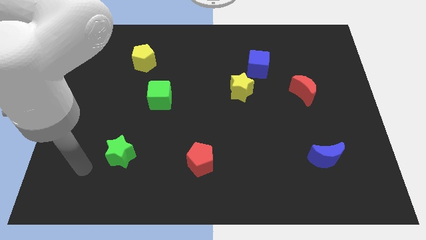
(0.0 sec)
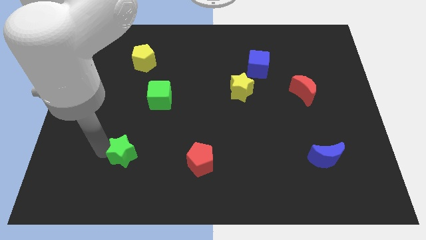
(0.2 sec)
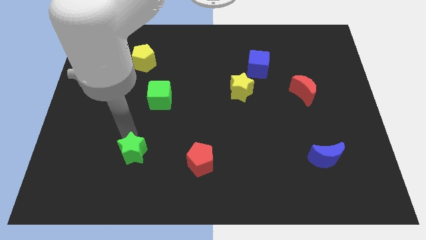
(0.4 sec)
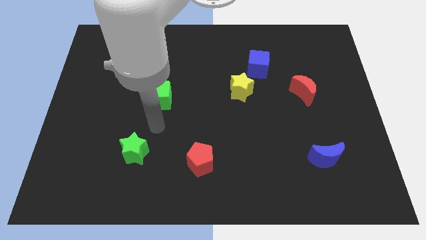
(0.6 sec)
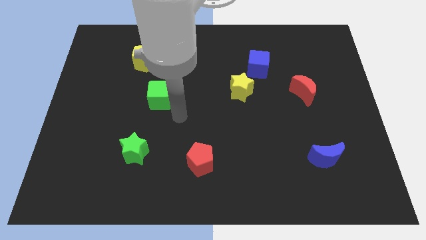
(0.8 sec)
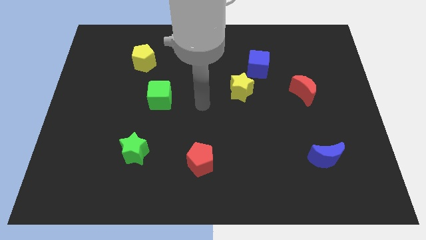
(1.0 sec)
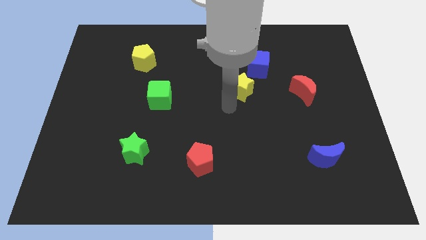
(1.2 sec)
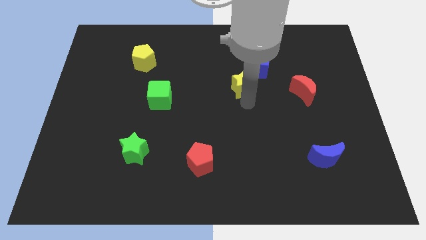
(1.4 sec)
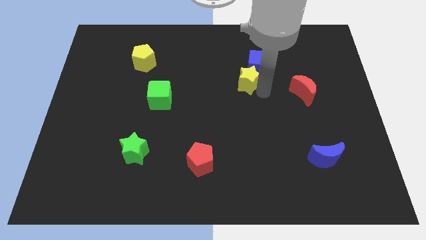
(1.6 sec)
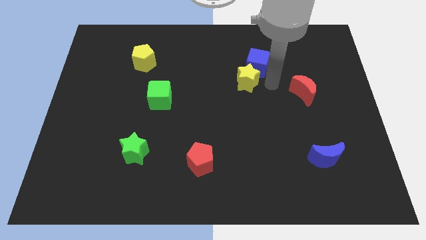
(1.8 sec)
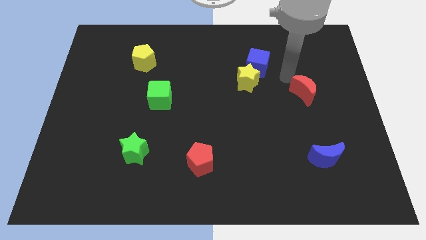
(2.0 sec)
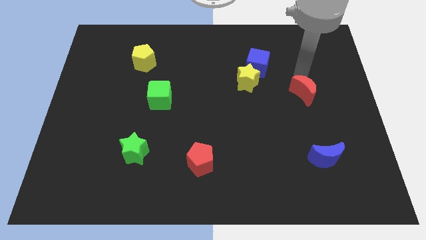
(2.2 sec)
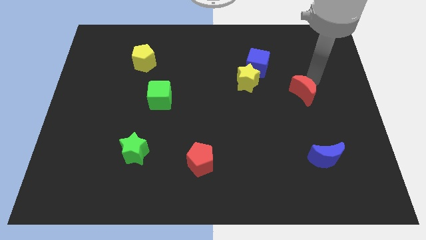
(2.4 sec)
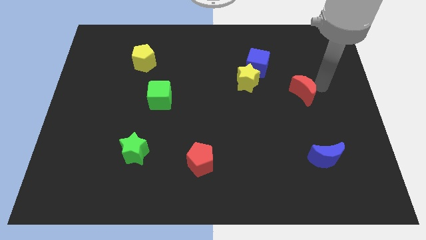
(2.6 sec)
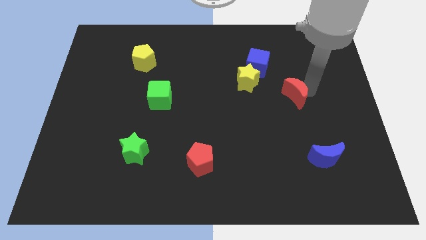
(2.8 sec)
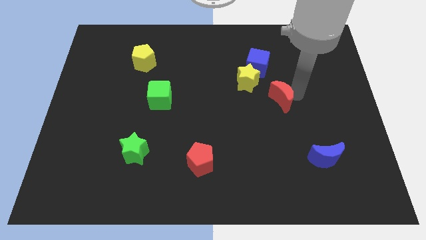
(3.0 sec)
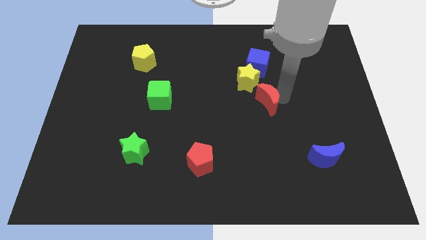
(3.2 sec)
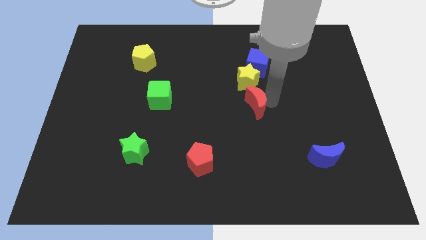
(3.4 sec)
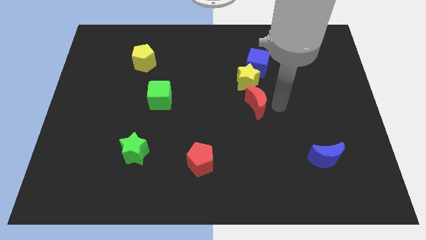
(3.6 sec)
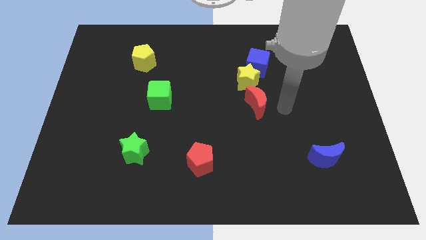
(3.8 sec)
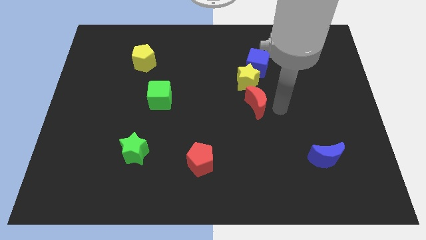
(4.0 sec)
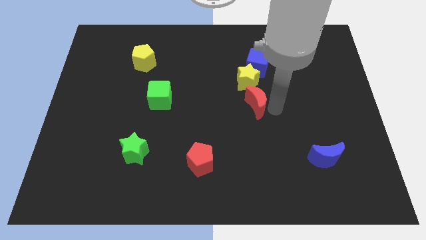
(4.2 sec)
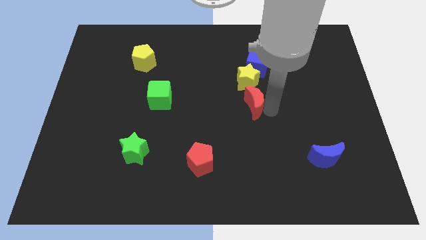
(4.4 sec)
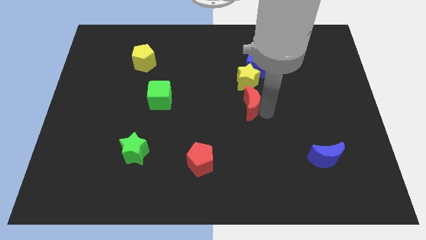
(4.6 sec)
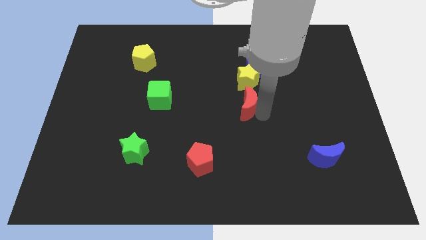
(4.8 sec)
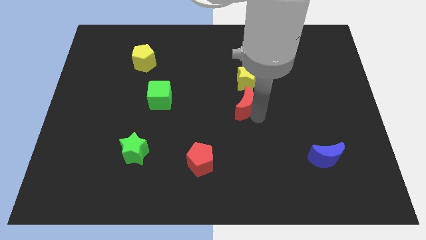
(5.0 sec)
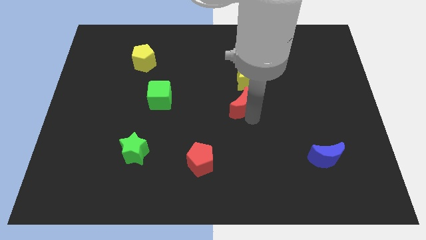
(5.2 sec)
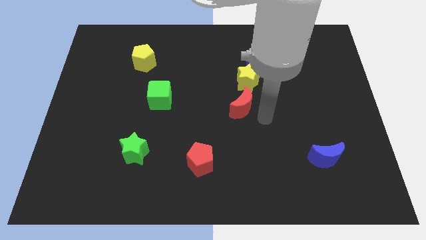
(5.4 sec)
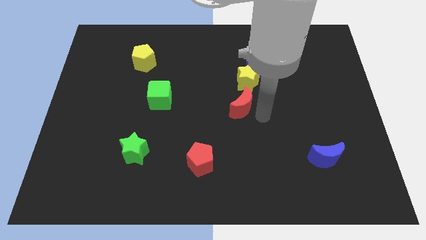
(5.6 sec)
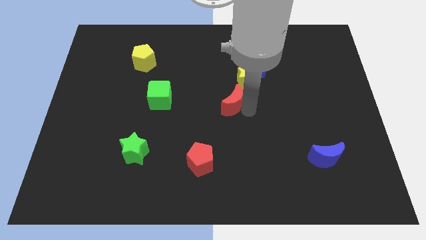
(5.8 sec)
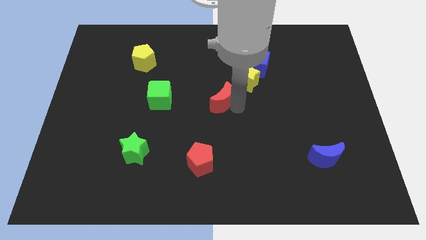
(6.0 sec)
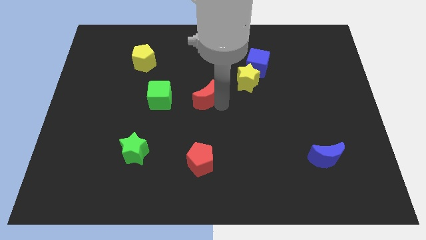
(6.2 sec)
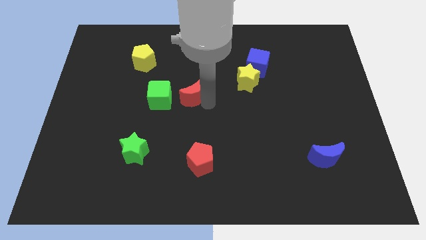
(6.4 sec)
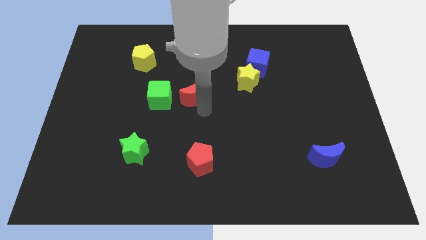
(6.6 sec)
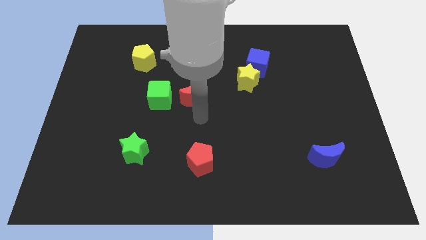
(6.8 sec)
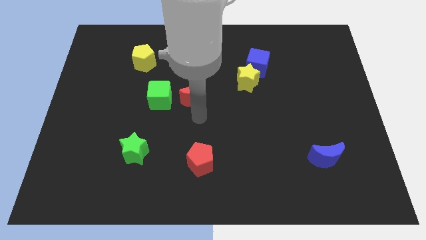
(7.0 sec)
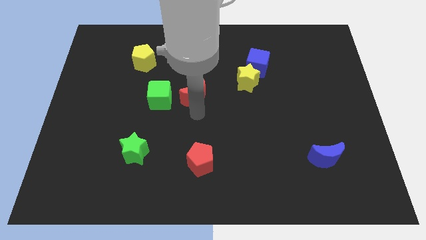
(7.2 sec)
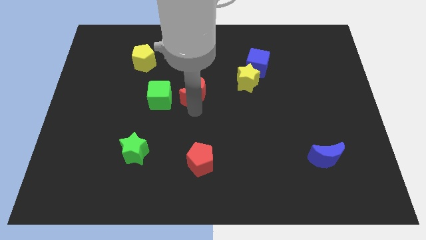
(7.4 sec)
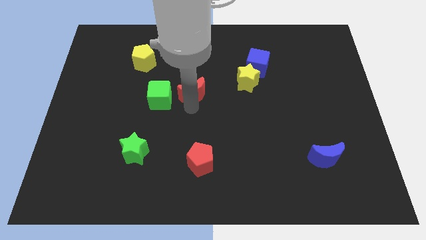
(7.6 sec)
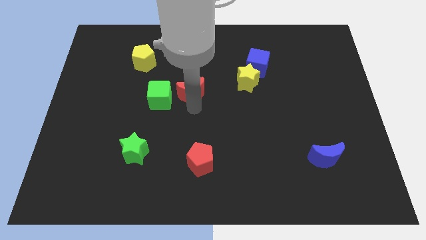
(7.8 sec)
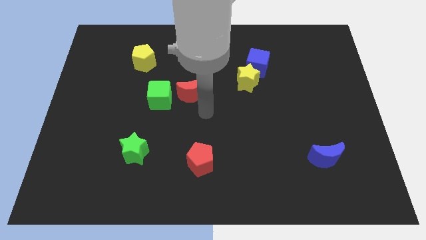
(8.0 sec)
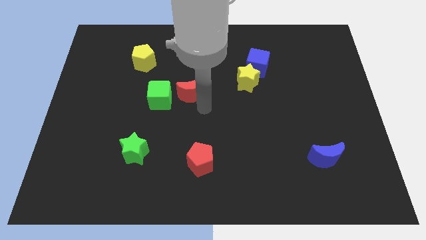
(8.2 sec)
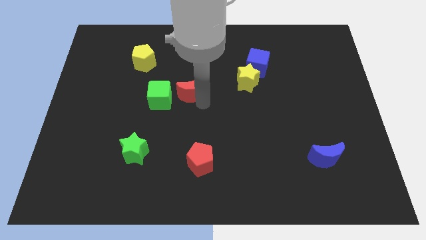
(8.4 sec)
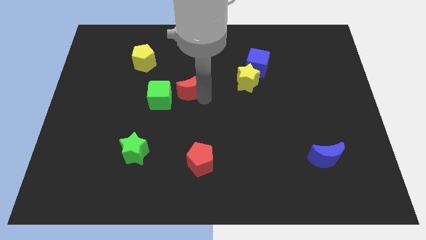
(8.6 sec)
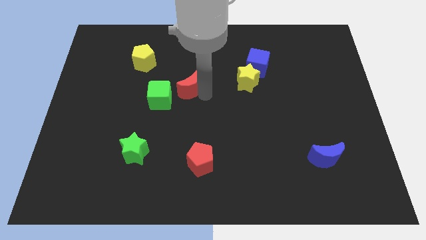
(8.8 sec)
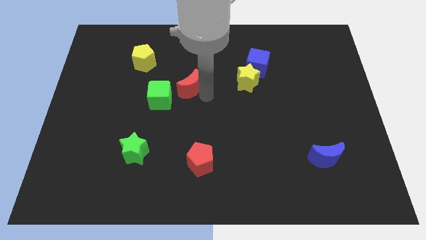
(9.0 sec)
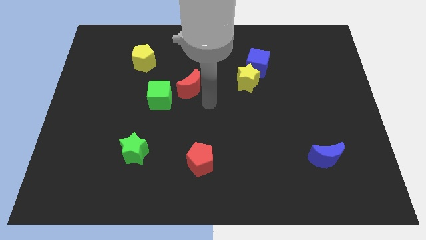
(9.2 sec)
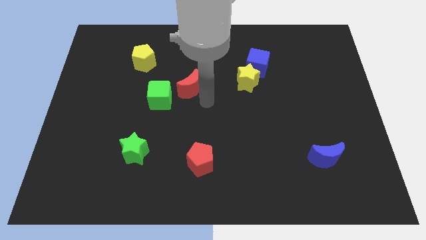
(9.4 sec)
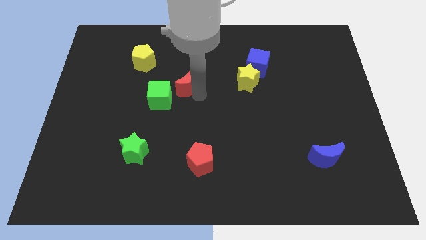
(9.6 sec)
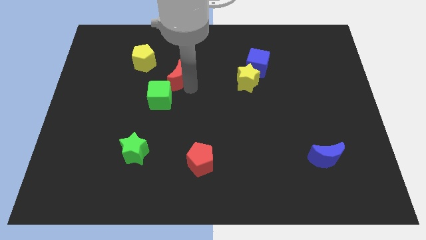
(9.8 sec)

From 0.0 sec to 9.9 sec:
put the red moon to the top of the green cube

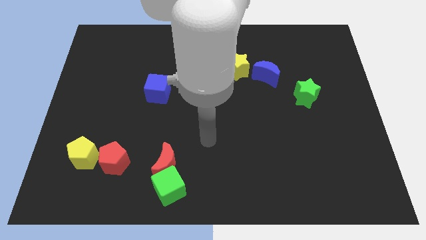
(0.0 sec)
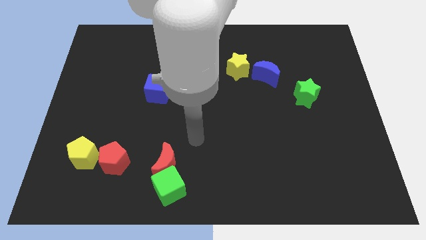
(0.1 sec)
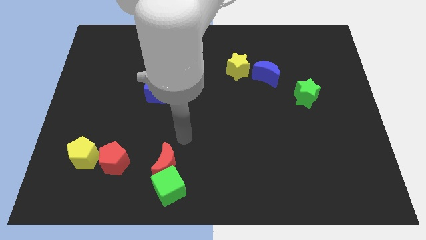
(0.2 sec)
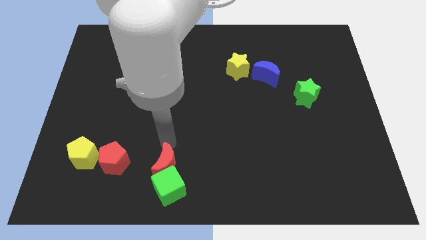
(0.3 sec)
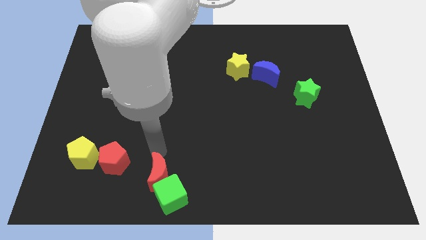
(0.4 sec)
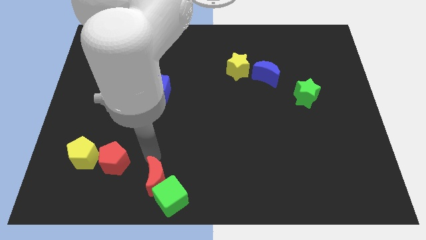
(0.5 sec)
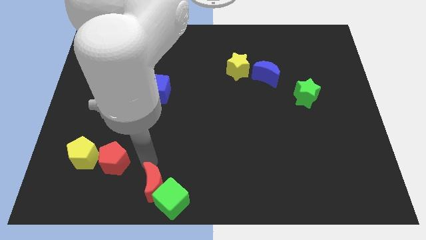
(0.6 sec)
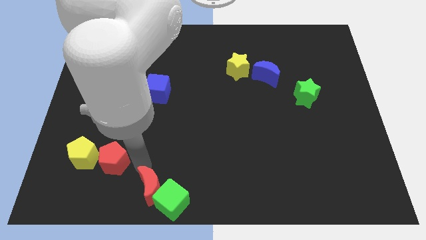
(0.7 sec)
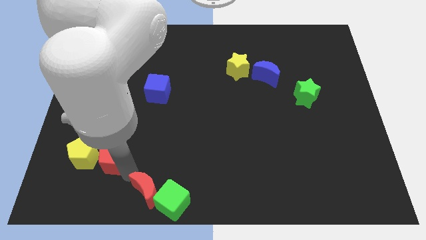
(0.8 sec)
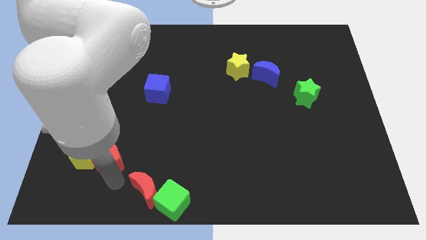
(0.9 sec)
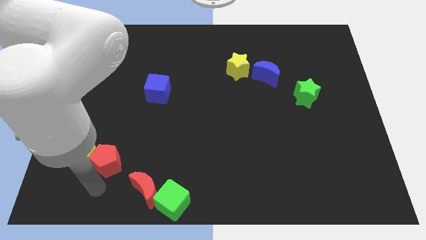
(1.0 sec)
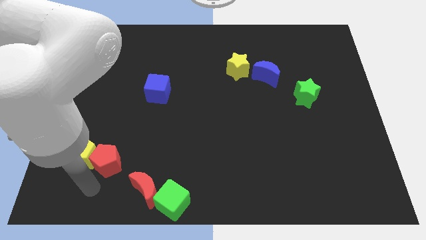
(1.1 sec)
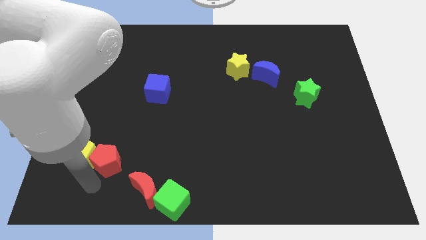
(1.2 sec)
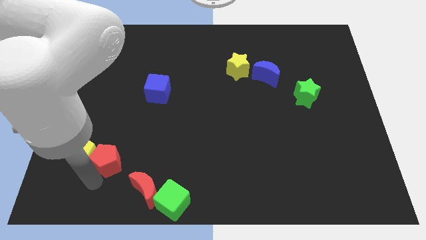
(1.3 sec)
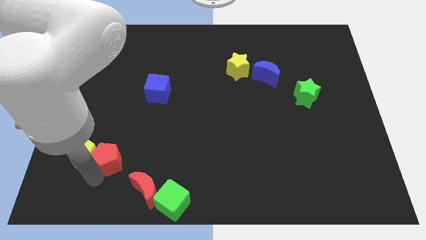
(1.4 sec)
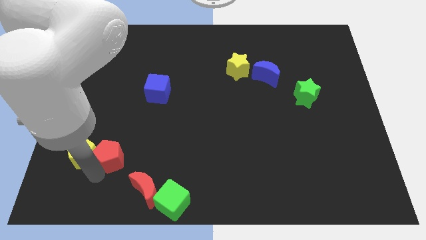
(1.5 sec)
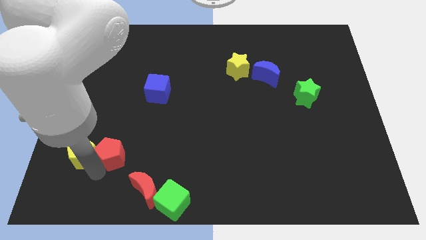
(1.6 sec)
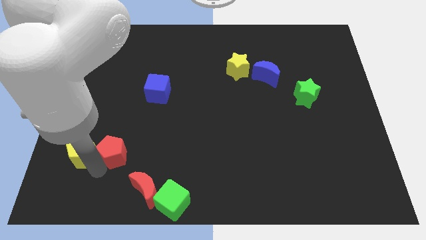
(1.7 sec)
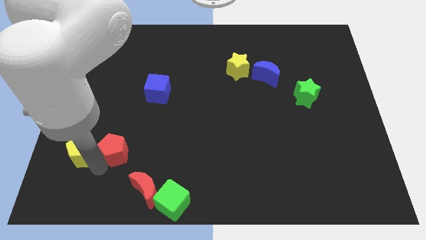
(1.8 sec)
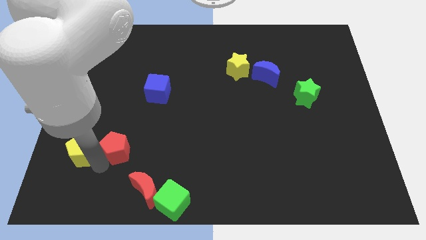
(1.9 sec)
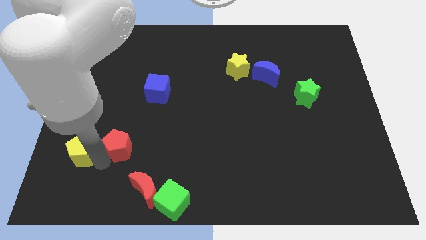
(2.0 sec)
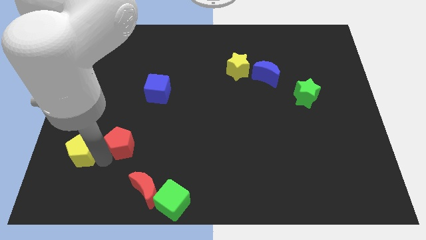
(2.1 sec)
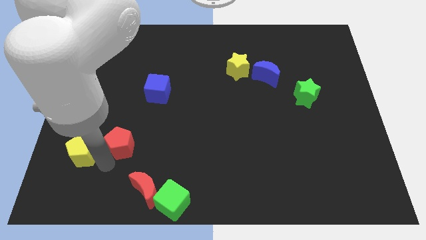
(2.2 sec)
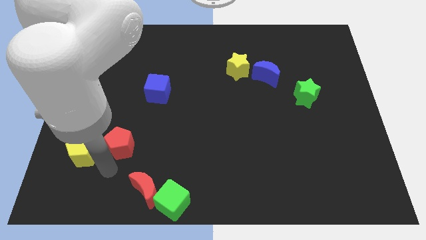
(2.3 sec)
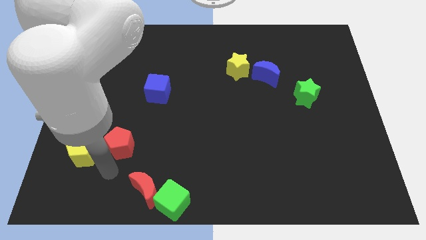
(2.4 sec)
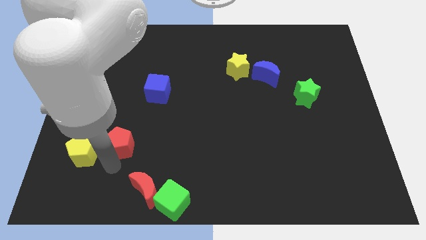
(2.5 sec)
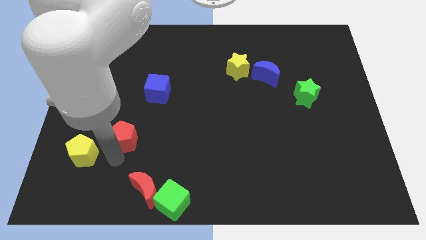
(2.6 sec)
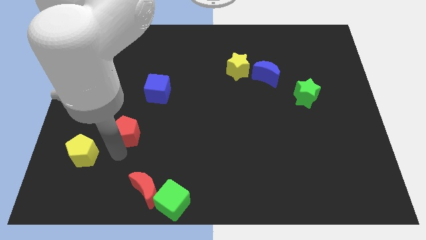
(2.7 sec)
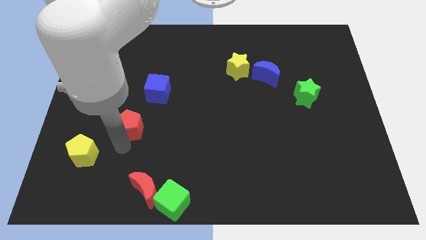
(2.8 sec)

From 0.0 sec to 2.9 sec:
put the red pentagon diagonally down and to the left of the blue cube

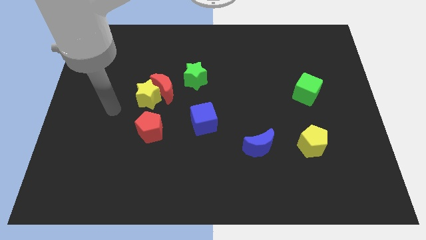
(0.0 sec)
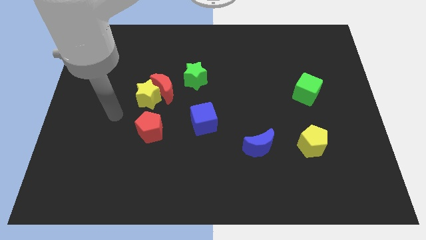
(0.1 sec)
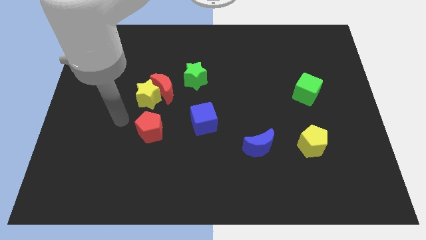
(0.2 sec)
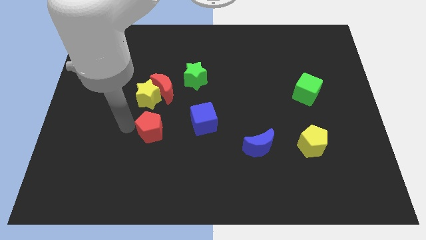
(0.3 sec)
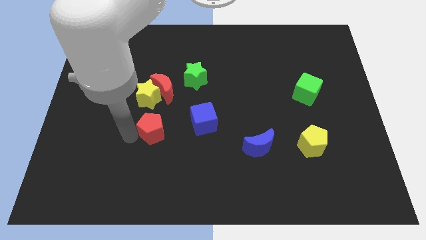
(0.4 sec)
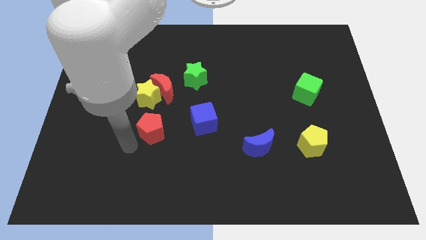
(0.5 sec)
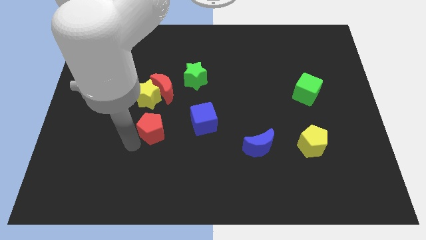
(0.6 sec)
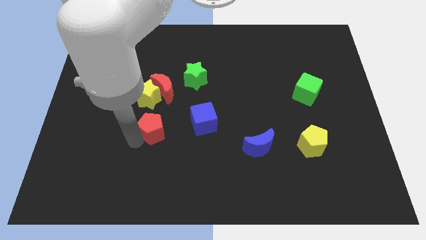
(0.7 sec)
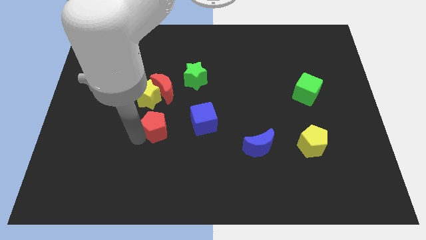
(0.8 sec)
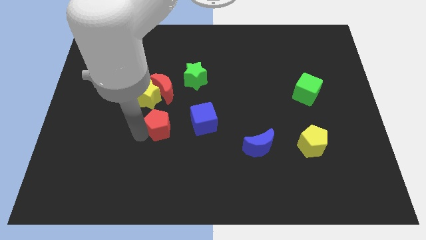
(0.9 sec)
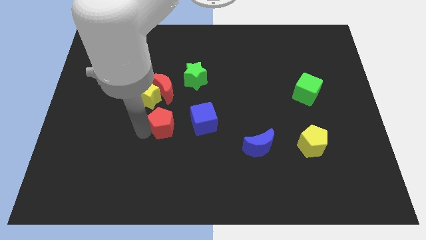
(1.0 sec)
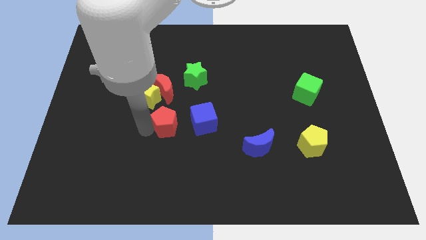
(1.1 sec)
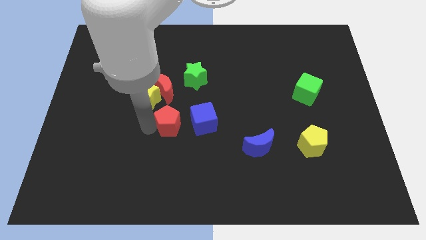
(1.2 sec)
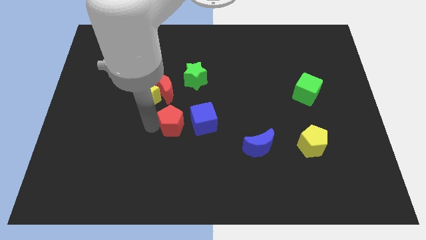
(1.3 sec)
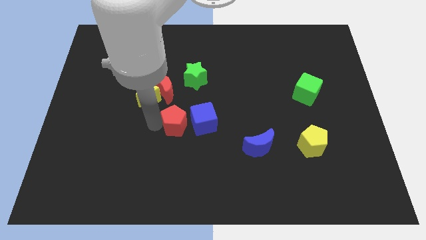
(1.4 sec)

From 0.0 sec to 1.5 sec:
slide the red pentagon to the bottom right of the red moon
